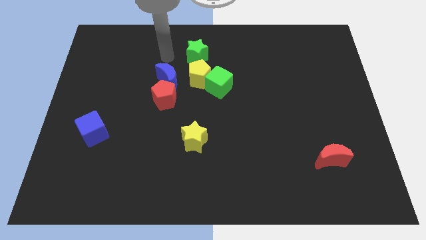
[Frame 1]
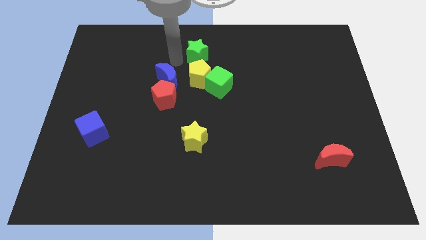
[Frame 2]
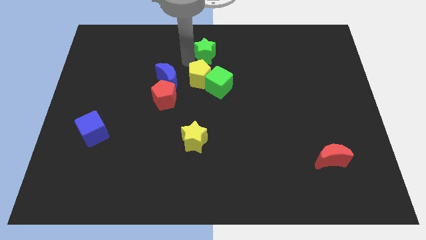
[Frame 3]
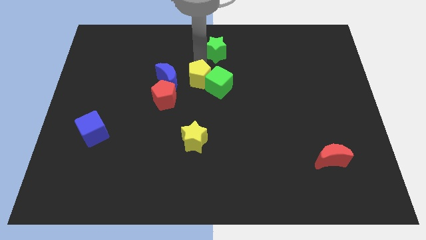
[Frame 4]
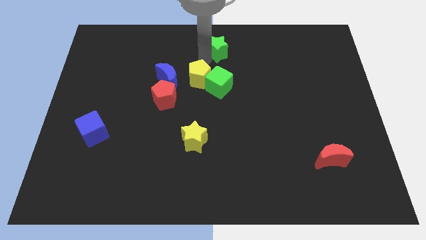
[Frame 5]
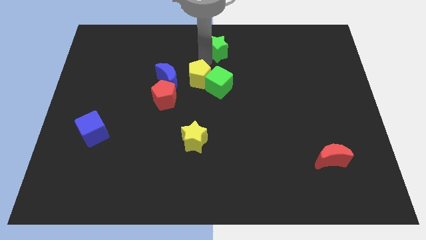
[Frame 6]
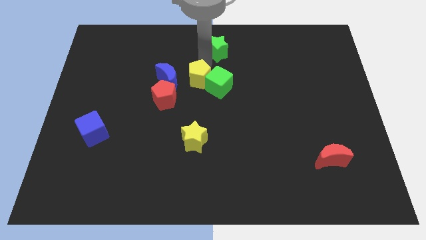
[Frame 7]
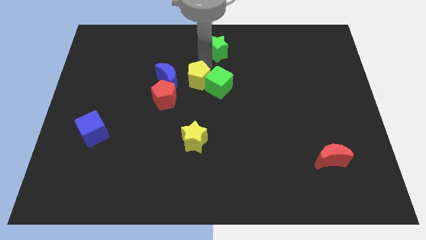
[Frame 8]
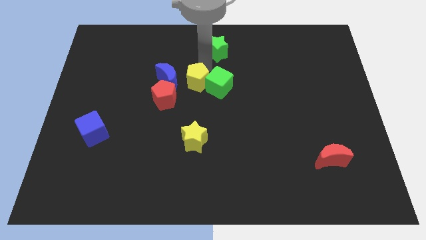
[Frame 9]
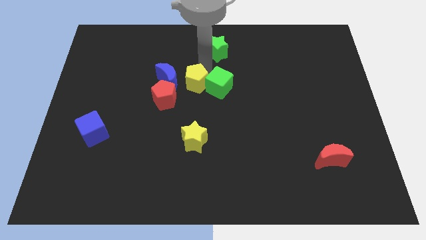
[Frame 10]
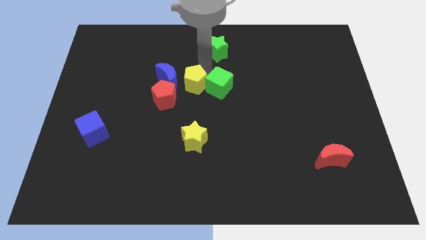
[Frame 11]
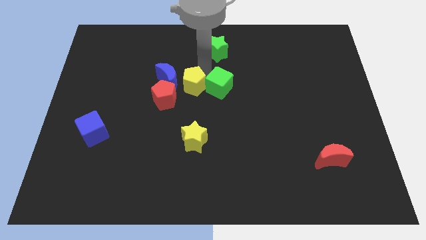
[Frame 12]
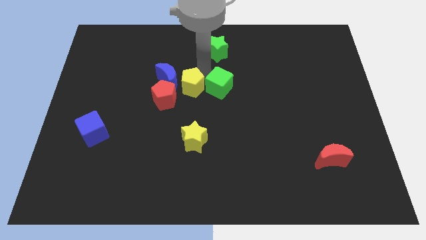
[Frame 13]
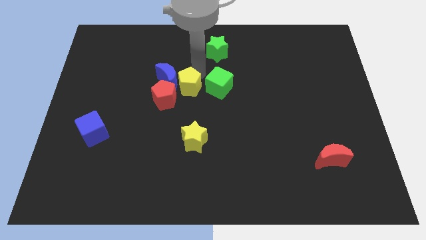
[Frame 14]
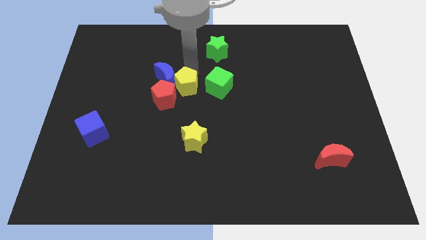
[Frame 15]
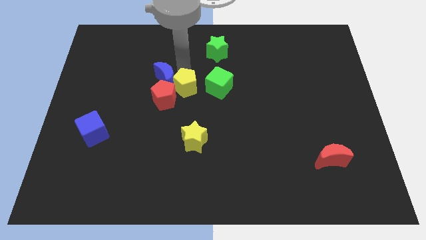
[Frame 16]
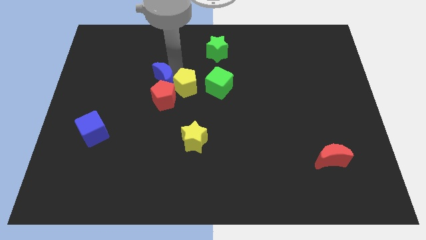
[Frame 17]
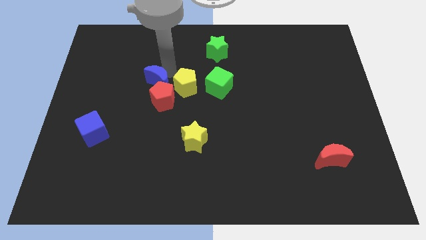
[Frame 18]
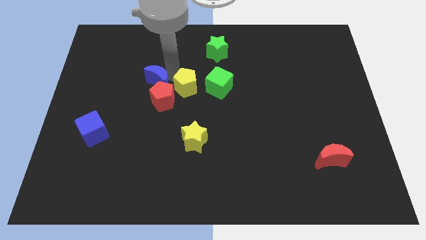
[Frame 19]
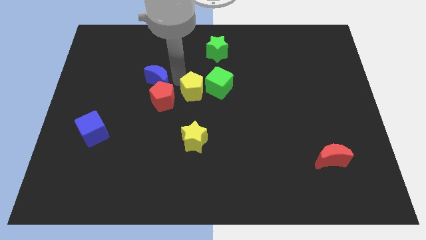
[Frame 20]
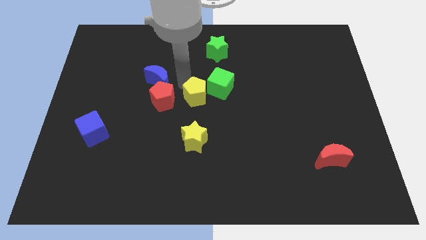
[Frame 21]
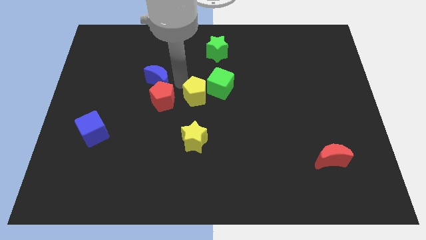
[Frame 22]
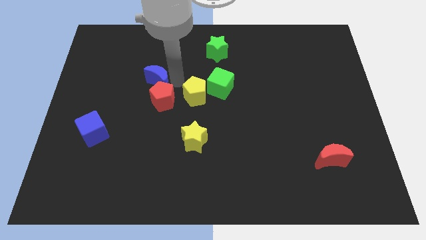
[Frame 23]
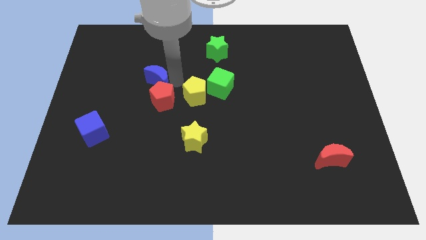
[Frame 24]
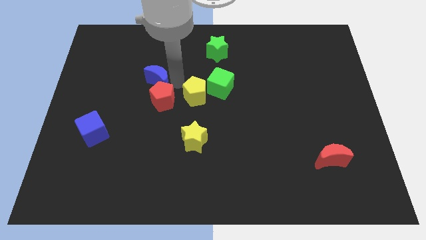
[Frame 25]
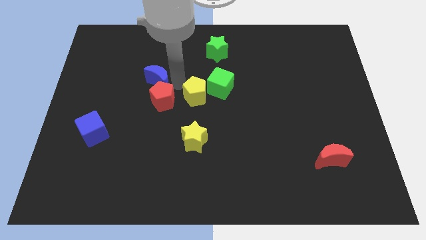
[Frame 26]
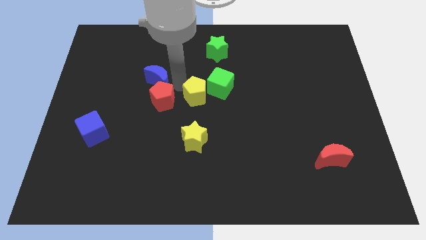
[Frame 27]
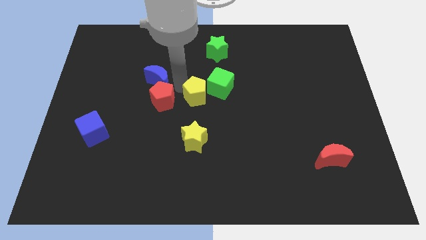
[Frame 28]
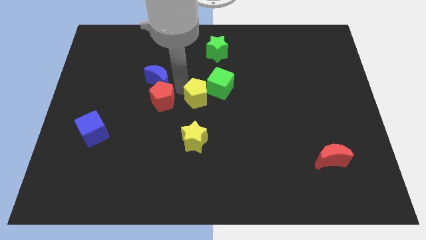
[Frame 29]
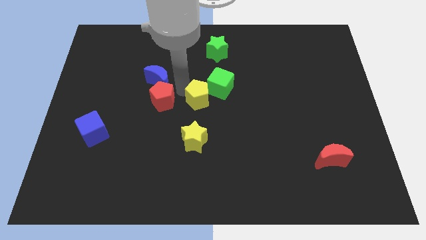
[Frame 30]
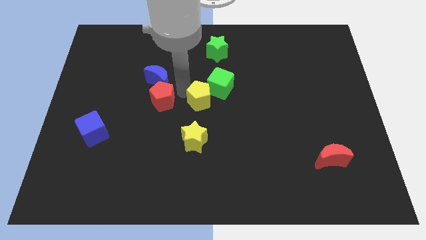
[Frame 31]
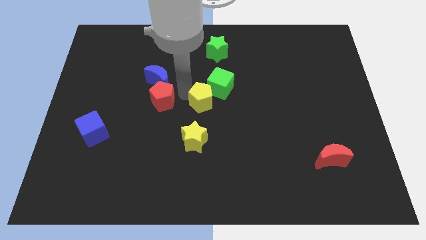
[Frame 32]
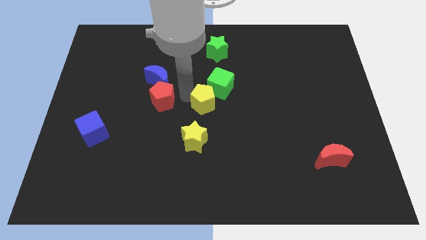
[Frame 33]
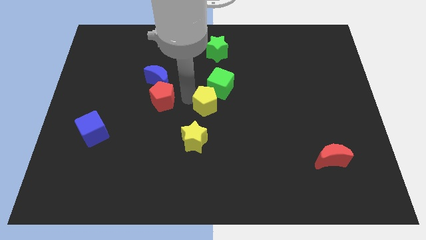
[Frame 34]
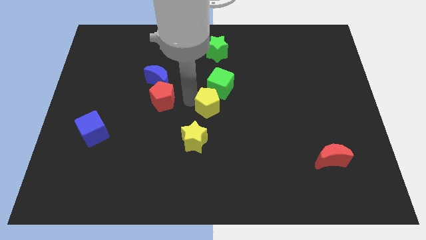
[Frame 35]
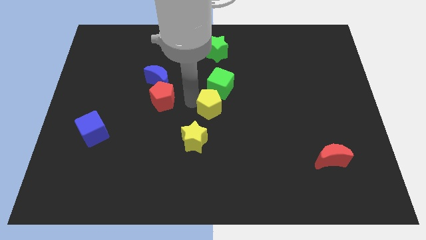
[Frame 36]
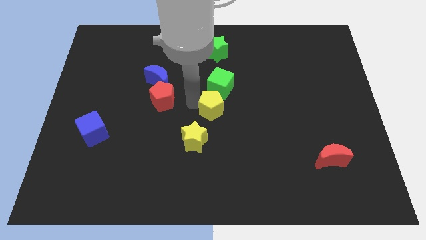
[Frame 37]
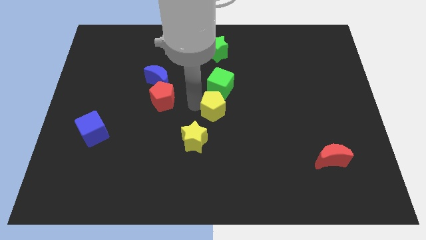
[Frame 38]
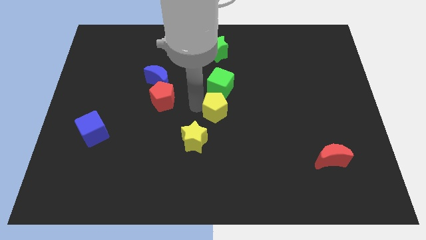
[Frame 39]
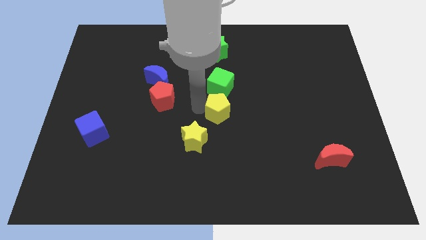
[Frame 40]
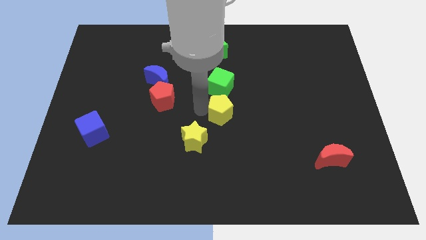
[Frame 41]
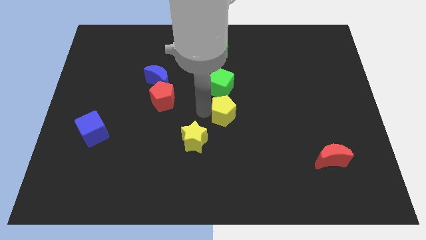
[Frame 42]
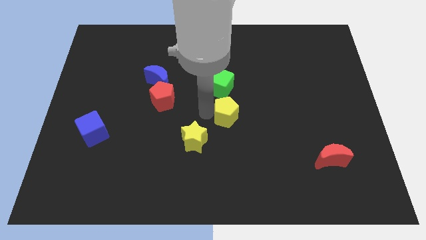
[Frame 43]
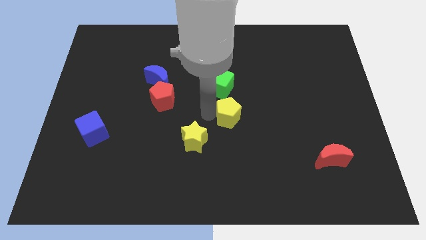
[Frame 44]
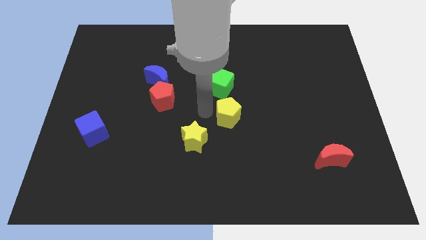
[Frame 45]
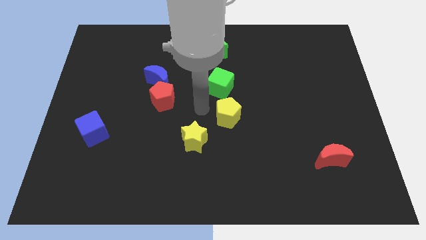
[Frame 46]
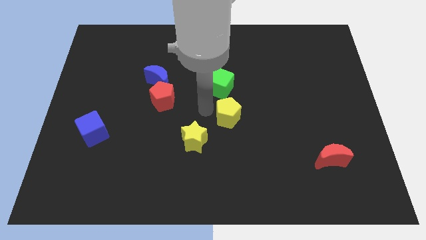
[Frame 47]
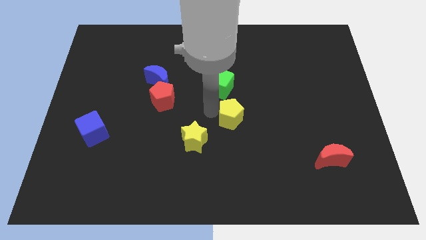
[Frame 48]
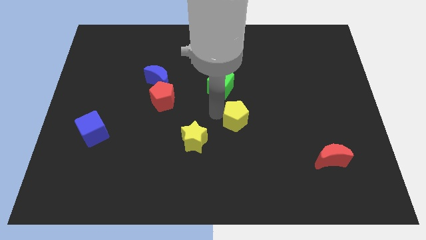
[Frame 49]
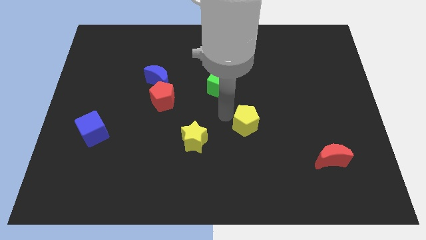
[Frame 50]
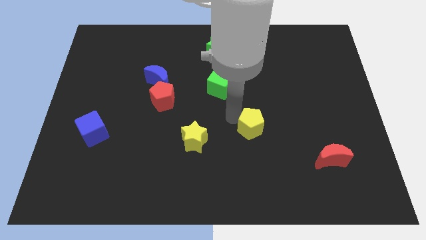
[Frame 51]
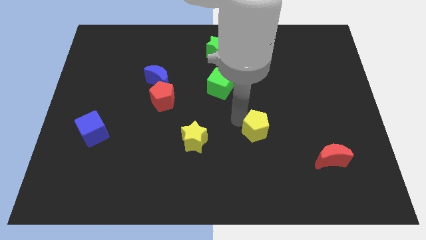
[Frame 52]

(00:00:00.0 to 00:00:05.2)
move the yellow pentagon downwards and right diagonally

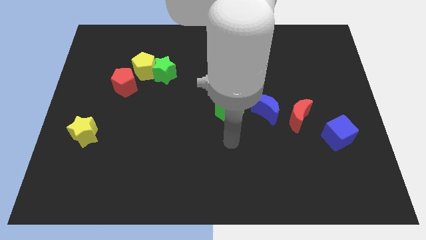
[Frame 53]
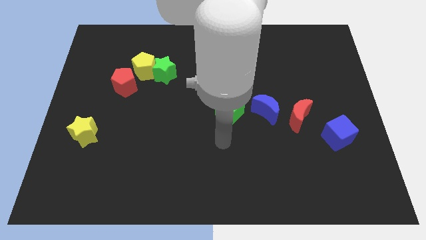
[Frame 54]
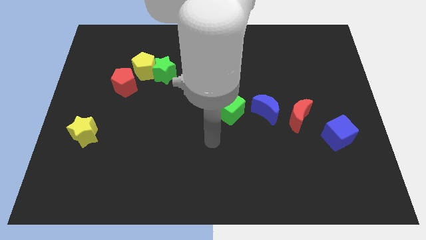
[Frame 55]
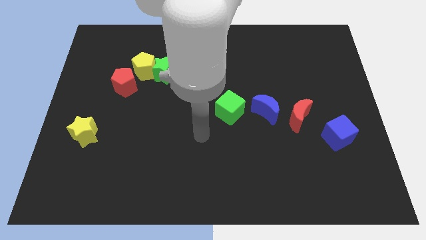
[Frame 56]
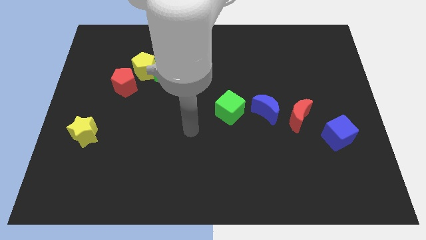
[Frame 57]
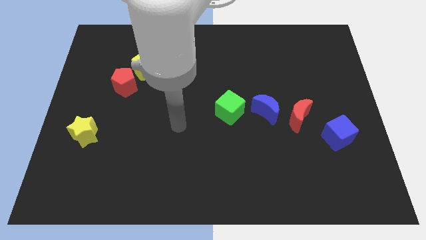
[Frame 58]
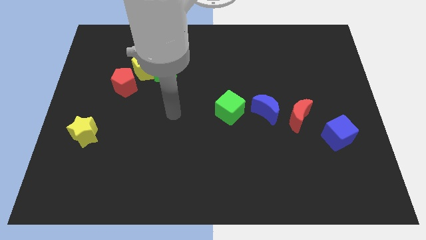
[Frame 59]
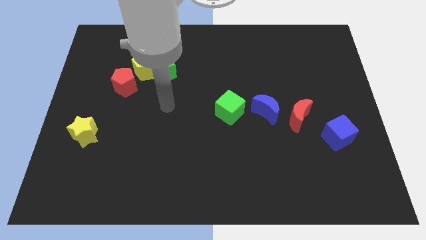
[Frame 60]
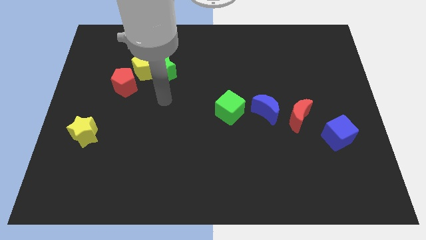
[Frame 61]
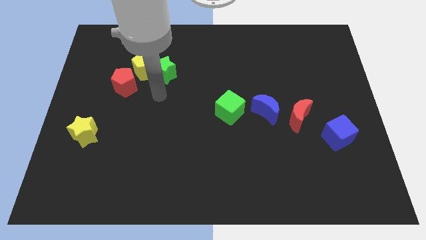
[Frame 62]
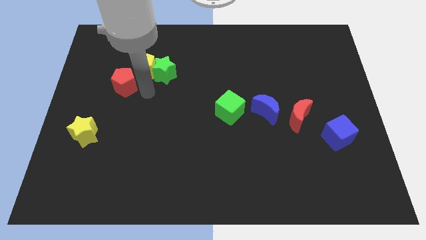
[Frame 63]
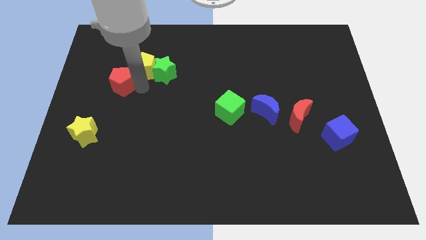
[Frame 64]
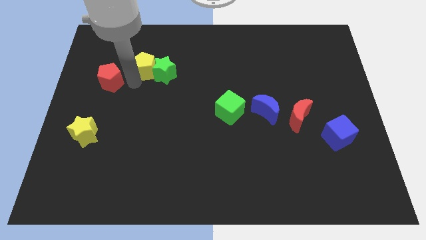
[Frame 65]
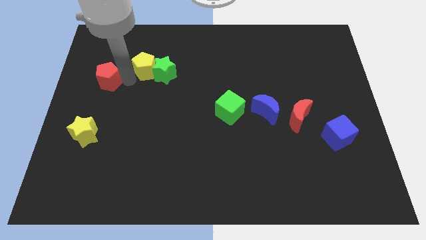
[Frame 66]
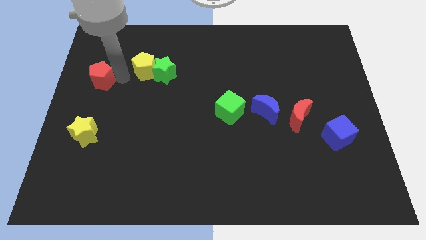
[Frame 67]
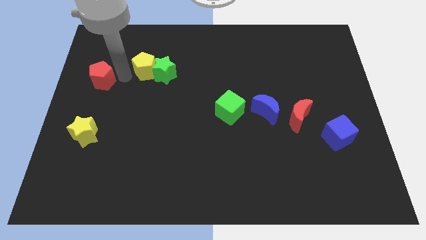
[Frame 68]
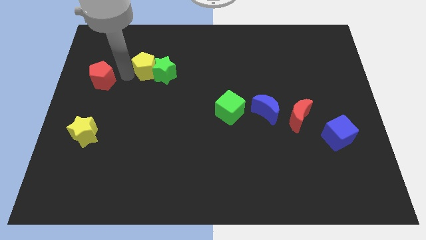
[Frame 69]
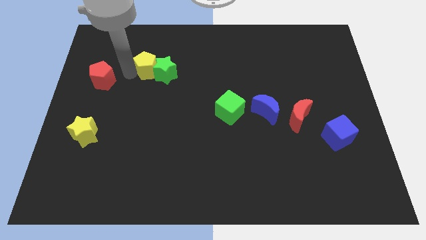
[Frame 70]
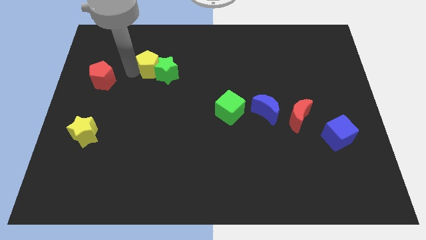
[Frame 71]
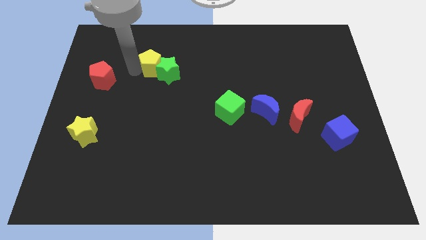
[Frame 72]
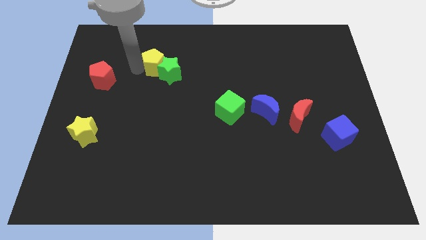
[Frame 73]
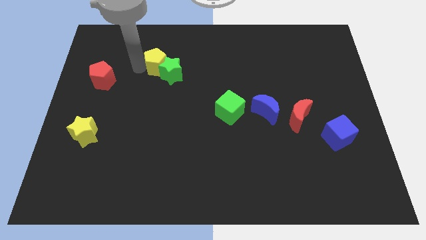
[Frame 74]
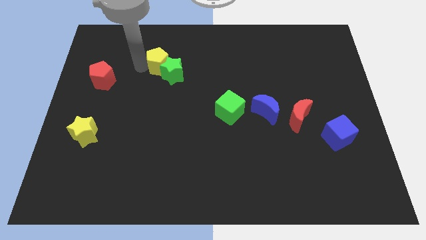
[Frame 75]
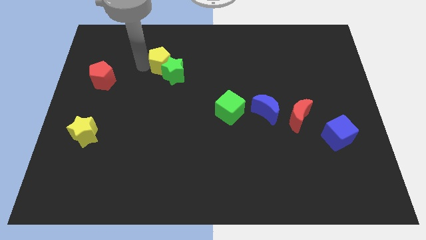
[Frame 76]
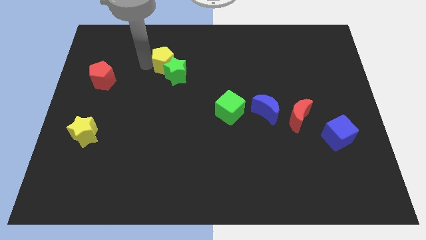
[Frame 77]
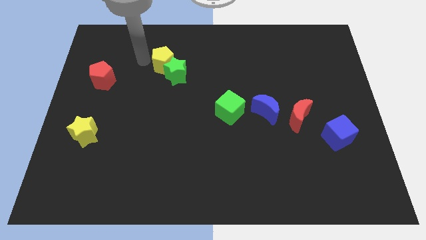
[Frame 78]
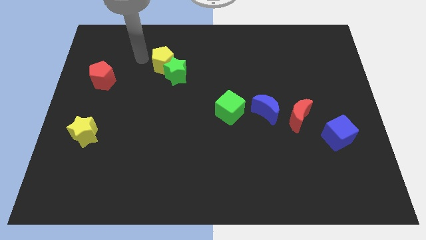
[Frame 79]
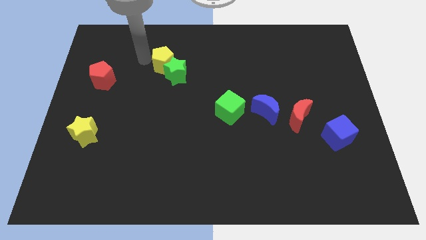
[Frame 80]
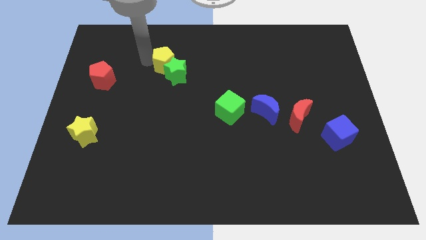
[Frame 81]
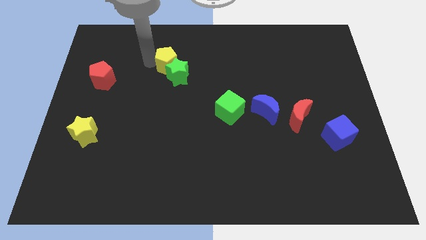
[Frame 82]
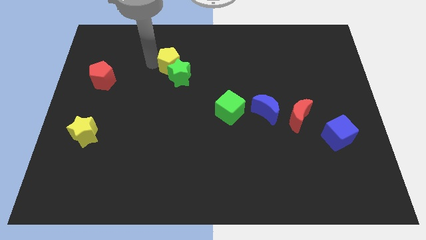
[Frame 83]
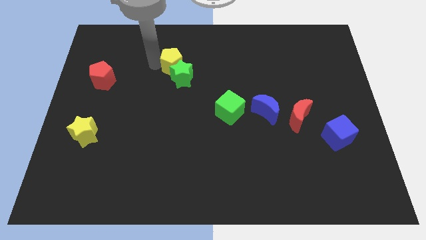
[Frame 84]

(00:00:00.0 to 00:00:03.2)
slide the yellow pentagon right a little
